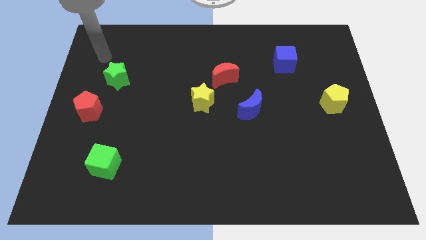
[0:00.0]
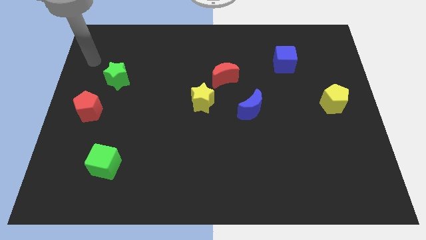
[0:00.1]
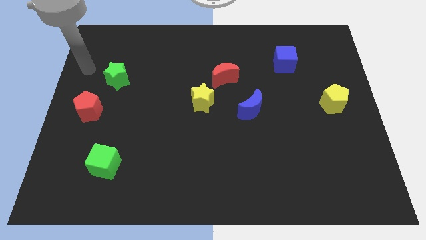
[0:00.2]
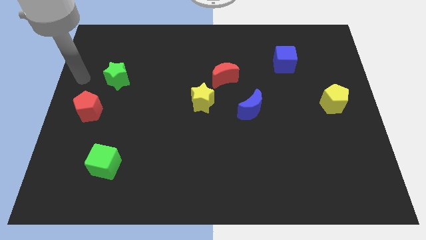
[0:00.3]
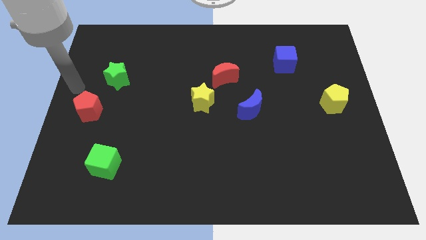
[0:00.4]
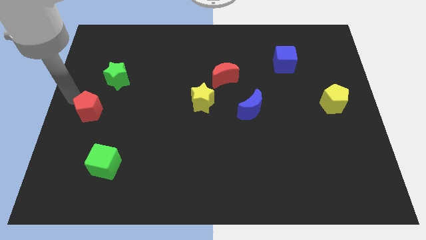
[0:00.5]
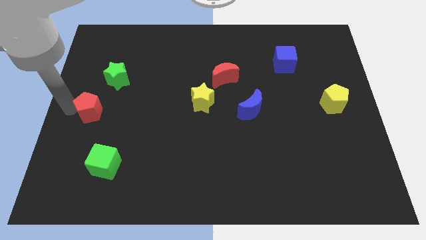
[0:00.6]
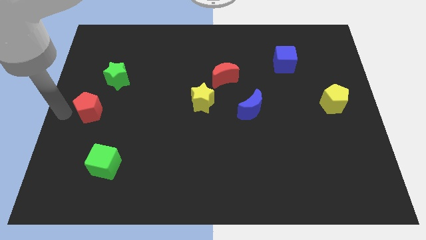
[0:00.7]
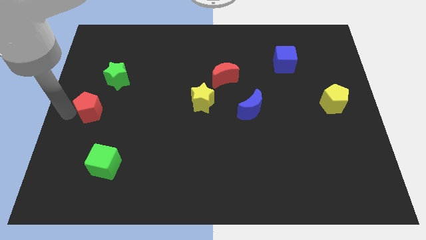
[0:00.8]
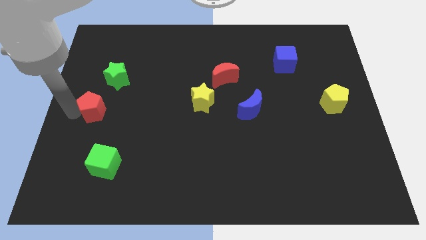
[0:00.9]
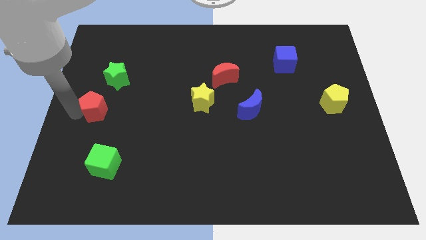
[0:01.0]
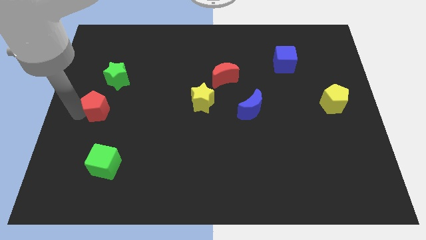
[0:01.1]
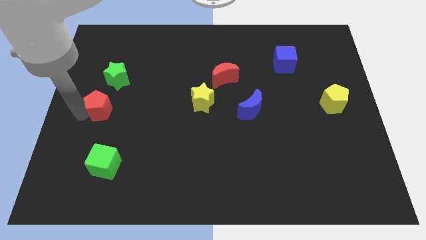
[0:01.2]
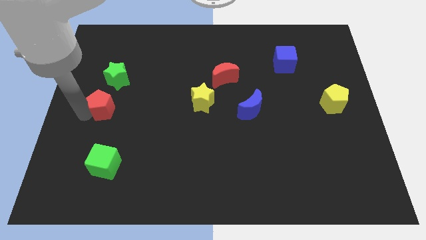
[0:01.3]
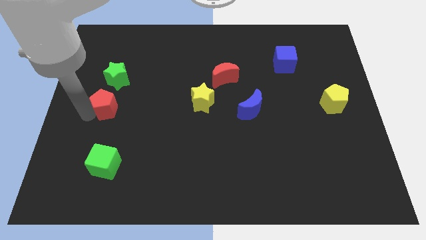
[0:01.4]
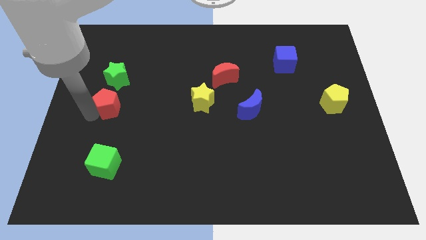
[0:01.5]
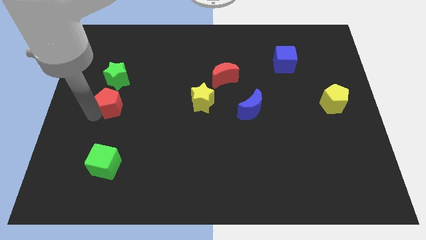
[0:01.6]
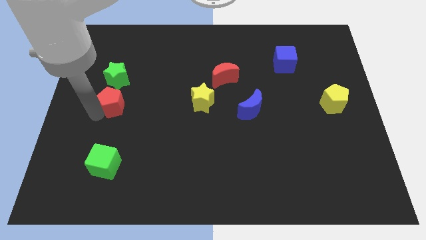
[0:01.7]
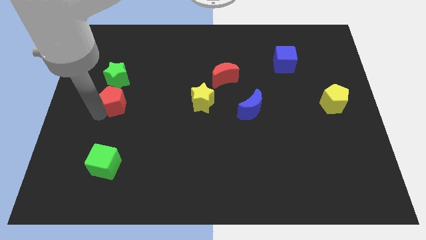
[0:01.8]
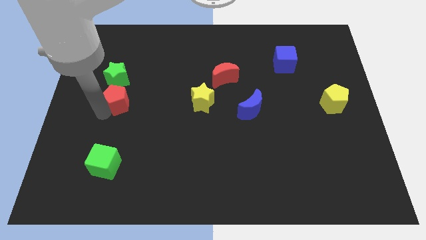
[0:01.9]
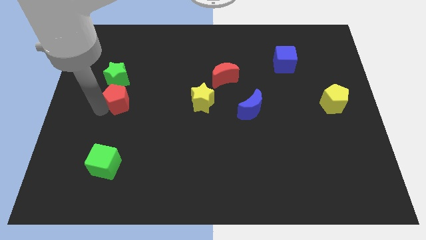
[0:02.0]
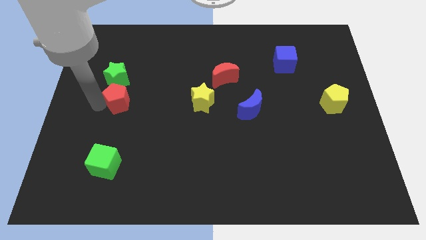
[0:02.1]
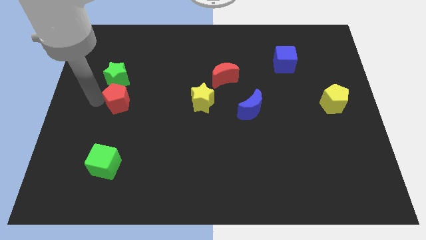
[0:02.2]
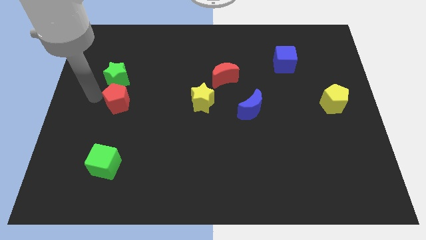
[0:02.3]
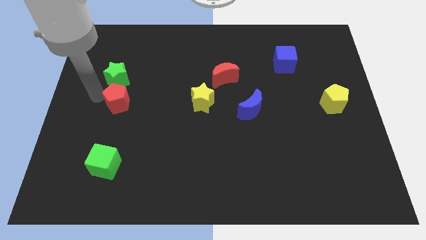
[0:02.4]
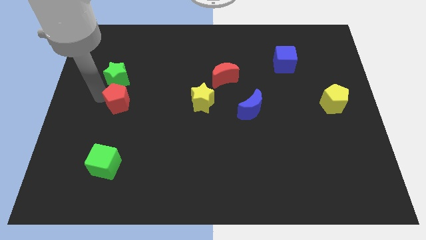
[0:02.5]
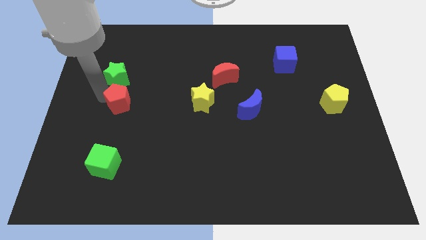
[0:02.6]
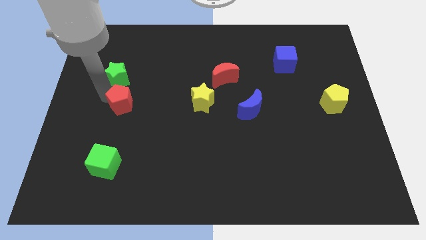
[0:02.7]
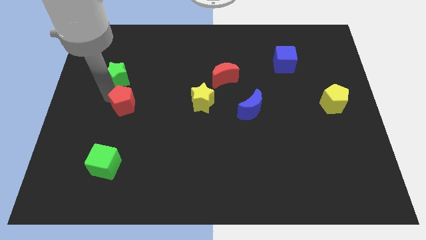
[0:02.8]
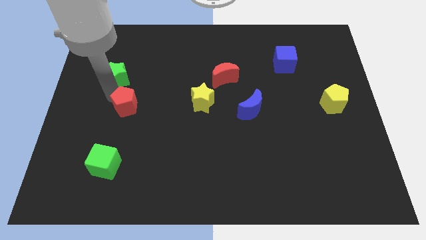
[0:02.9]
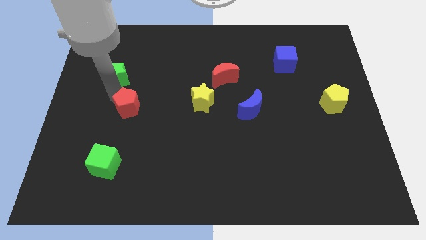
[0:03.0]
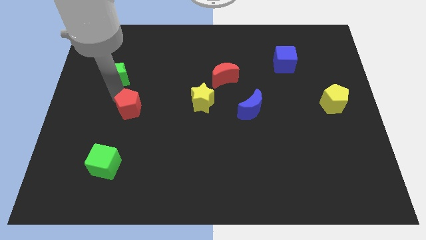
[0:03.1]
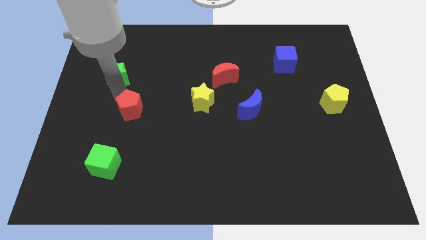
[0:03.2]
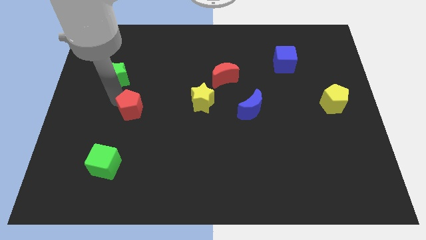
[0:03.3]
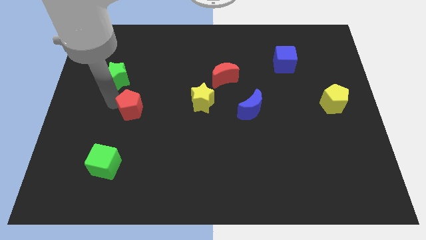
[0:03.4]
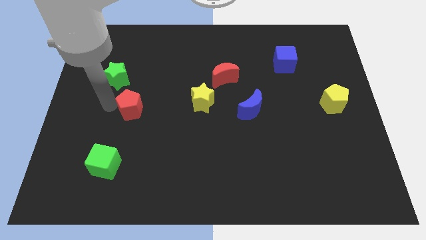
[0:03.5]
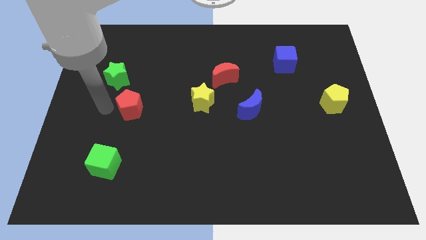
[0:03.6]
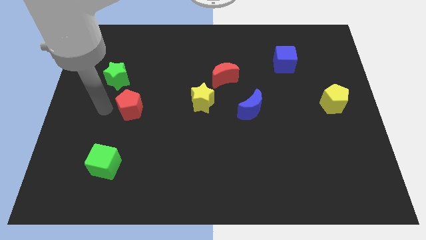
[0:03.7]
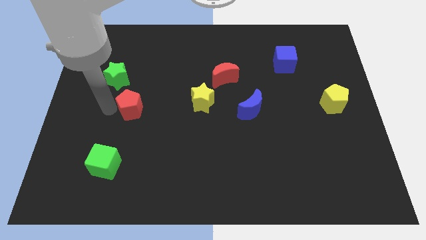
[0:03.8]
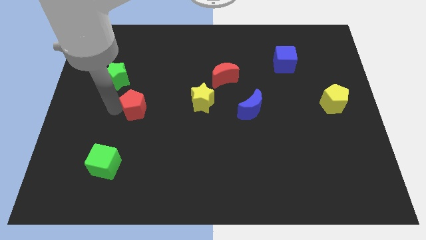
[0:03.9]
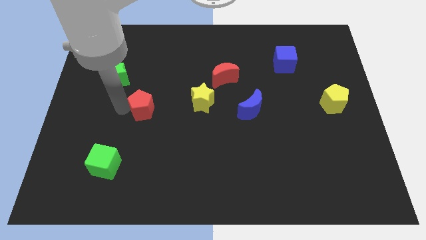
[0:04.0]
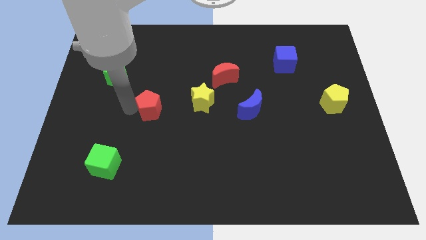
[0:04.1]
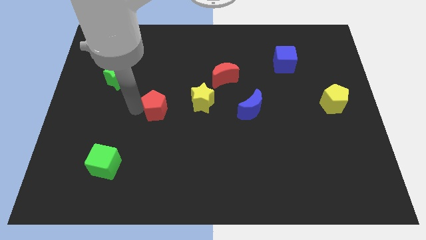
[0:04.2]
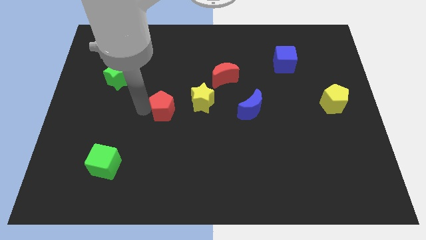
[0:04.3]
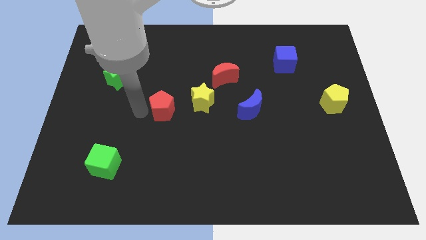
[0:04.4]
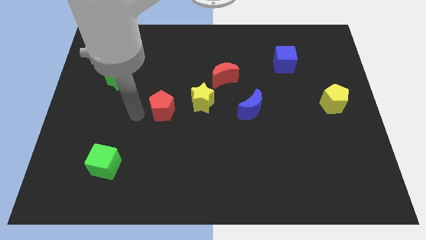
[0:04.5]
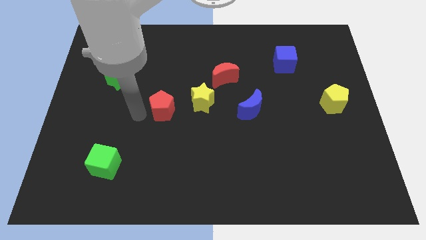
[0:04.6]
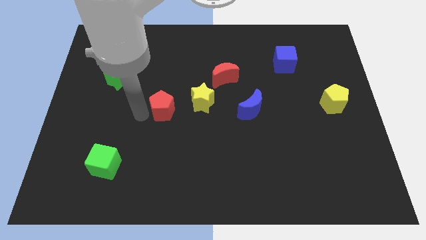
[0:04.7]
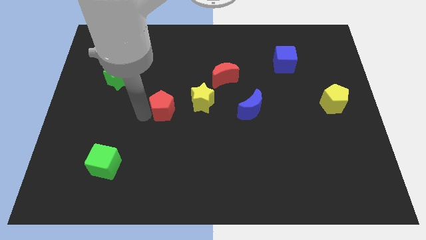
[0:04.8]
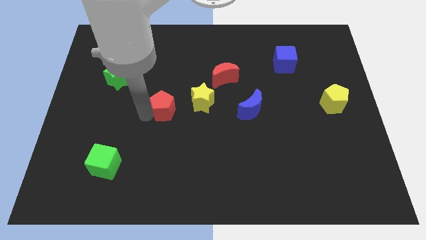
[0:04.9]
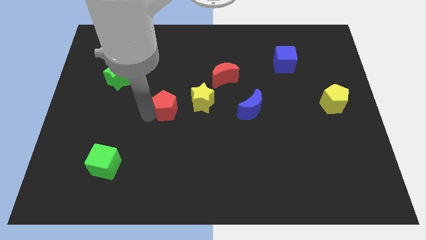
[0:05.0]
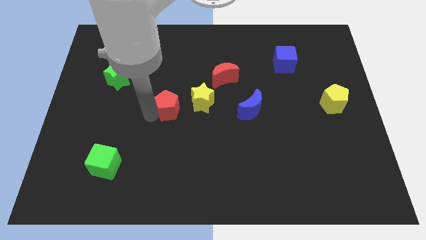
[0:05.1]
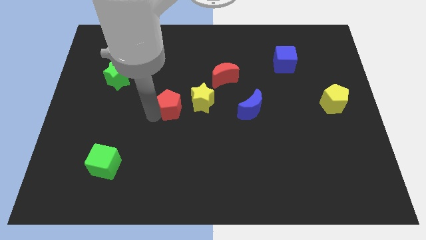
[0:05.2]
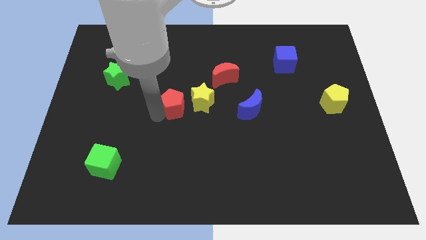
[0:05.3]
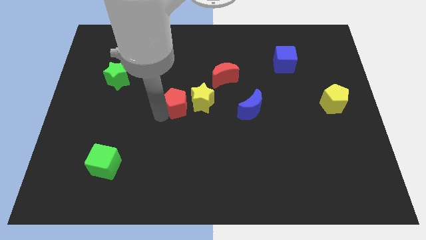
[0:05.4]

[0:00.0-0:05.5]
slide the red pentagon to the yellow star

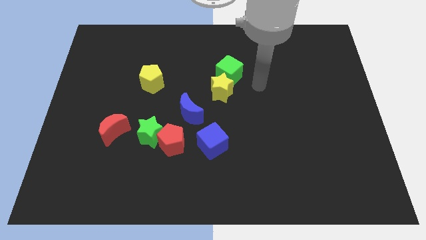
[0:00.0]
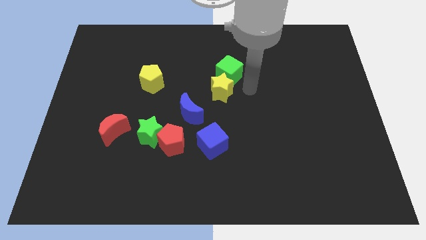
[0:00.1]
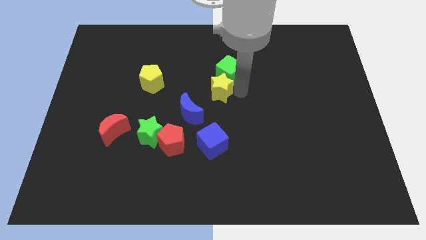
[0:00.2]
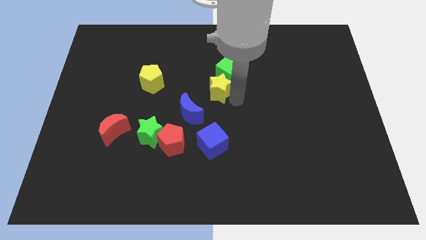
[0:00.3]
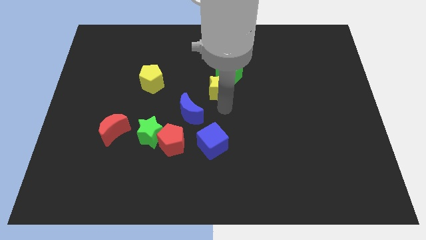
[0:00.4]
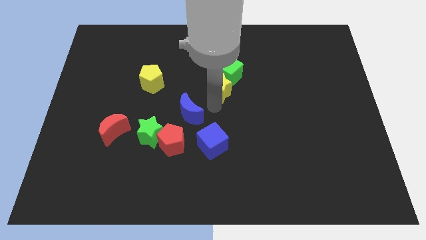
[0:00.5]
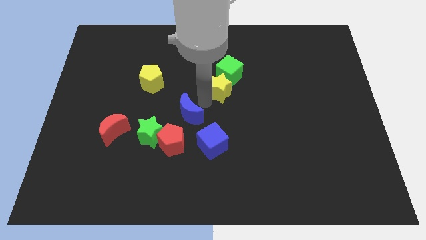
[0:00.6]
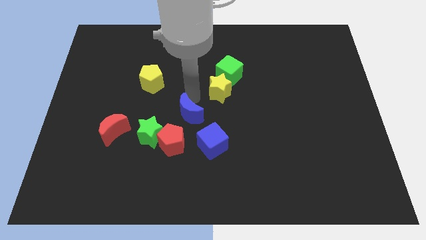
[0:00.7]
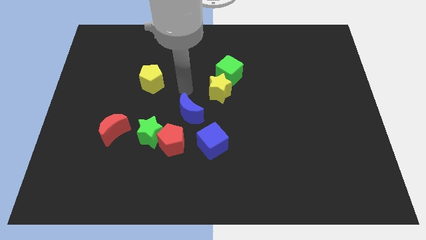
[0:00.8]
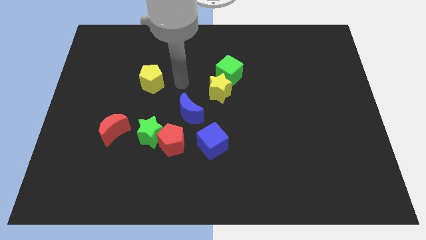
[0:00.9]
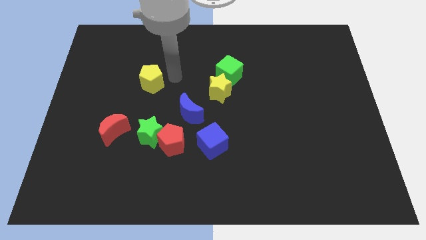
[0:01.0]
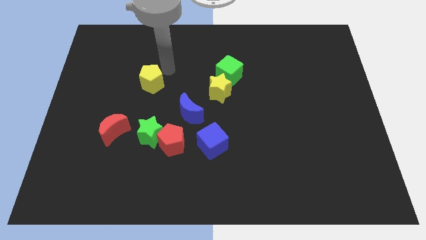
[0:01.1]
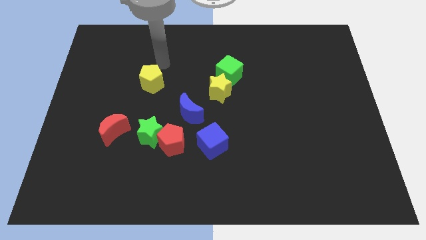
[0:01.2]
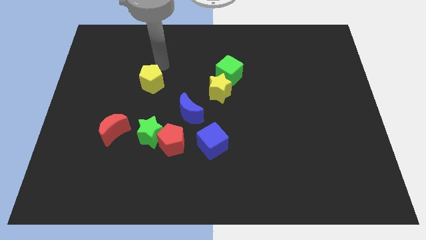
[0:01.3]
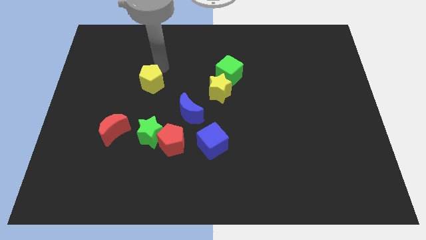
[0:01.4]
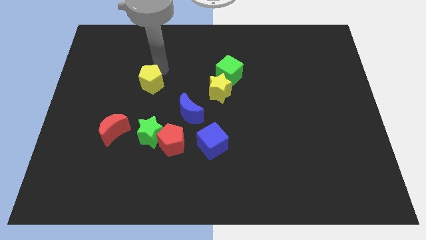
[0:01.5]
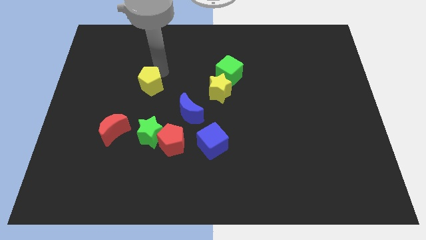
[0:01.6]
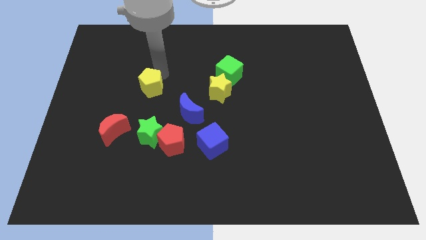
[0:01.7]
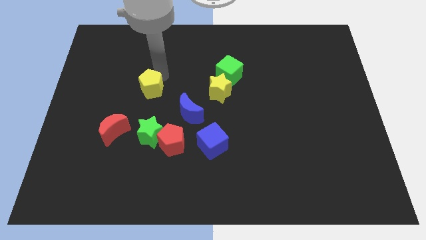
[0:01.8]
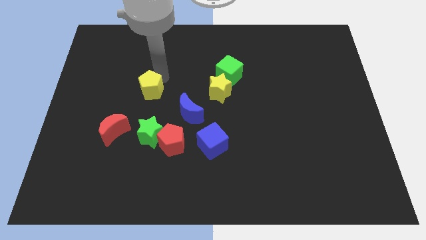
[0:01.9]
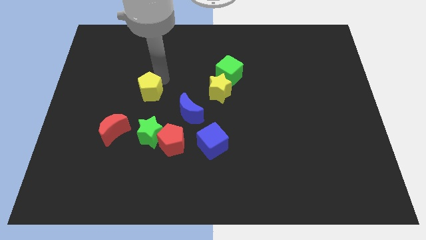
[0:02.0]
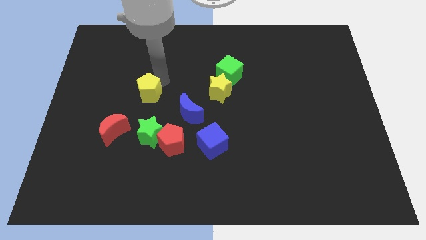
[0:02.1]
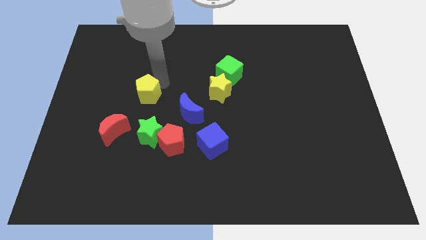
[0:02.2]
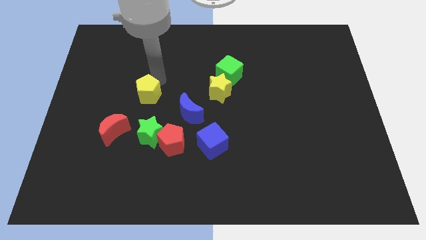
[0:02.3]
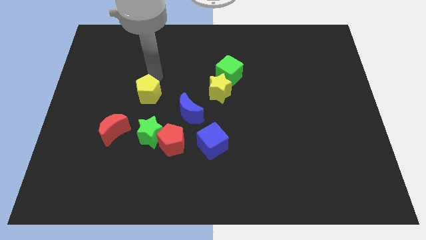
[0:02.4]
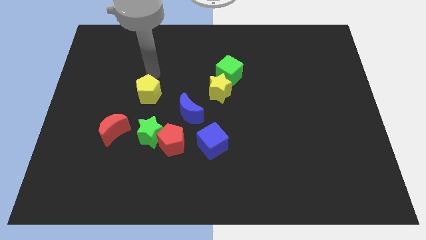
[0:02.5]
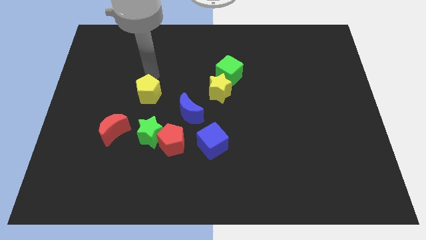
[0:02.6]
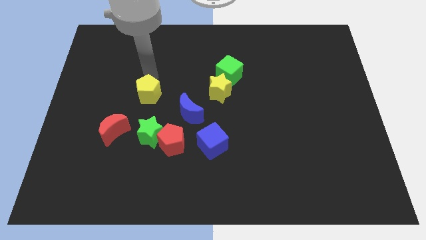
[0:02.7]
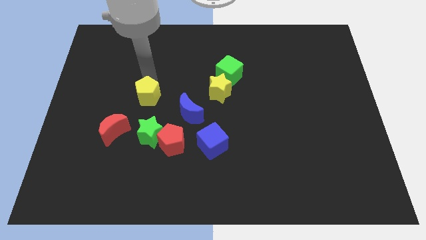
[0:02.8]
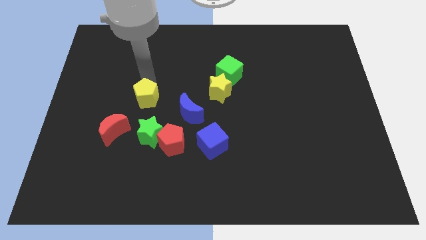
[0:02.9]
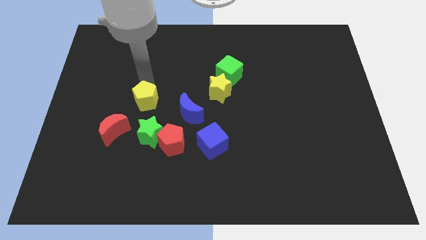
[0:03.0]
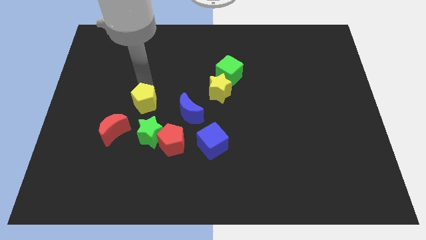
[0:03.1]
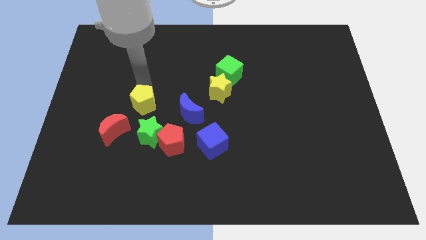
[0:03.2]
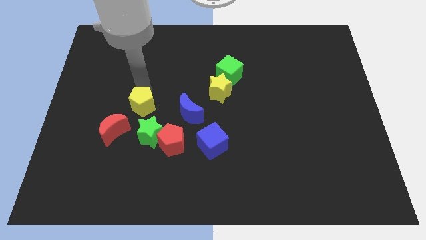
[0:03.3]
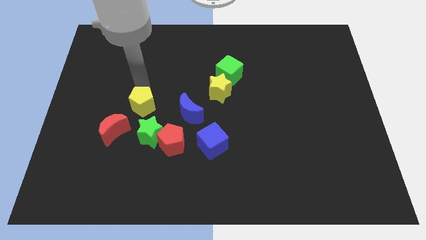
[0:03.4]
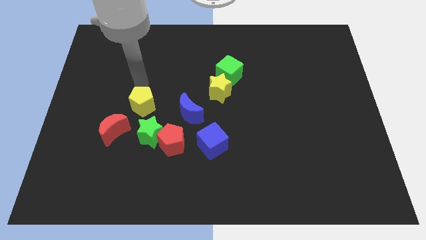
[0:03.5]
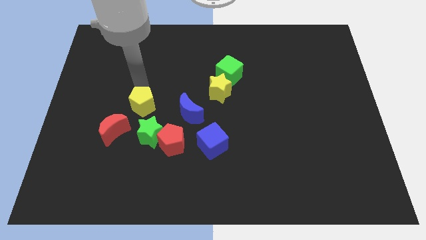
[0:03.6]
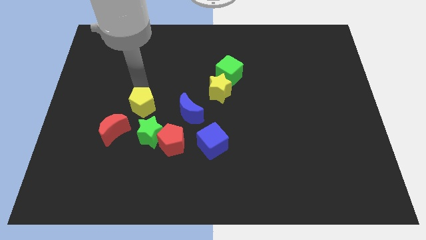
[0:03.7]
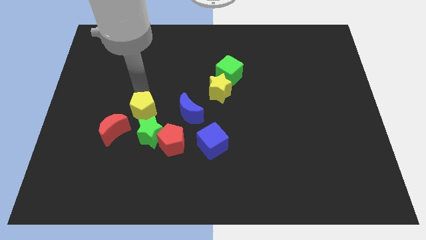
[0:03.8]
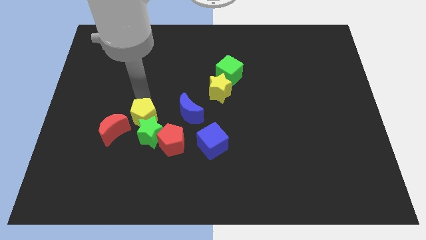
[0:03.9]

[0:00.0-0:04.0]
push the yellow pentagon towards the green star
